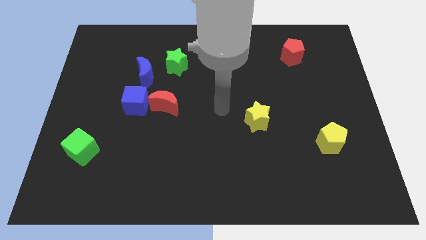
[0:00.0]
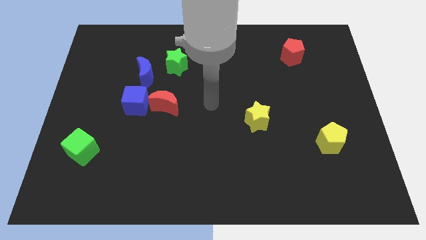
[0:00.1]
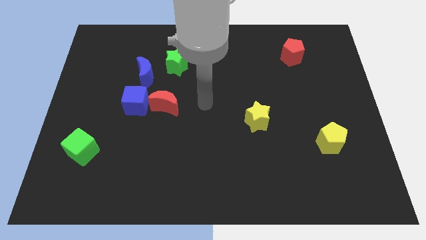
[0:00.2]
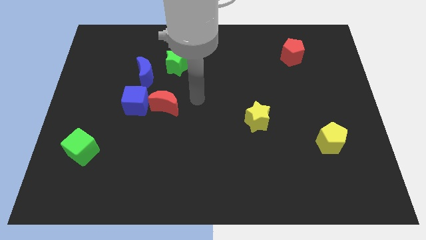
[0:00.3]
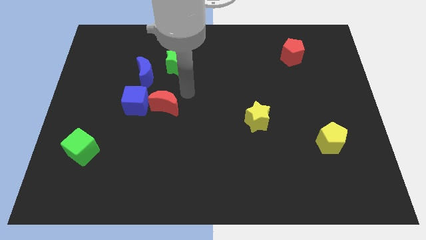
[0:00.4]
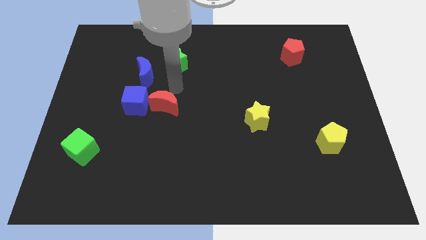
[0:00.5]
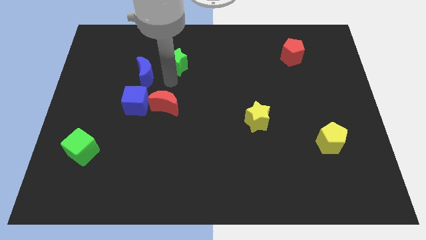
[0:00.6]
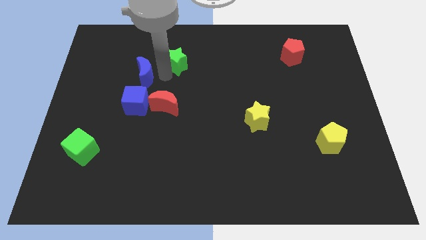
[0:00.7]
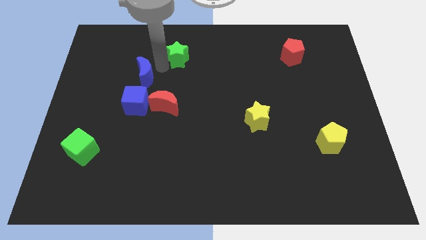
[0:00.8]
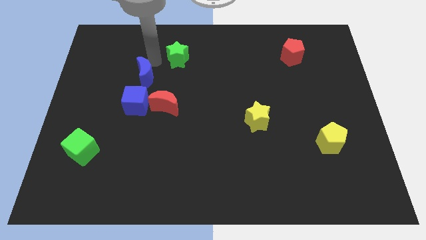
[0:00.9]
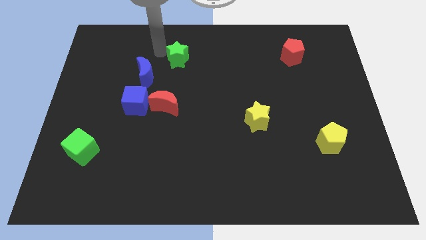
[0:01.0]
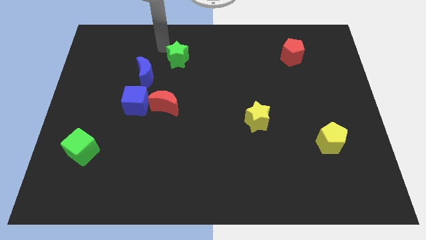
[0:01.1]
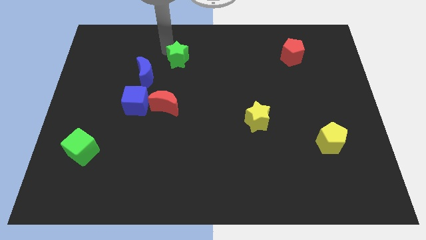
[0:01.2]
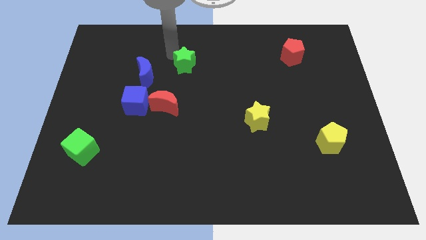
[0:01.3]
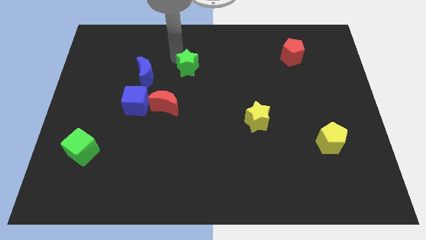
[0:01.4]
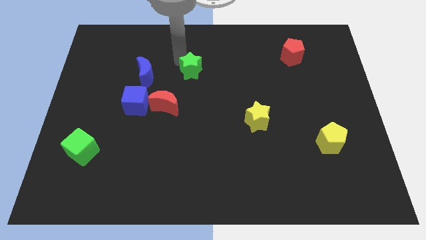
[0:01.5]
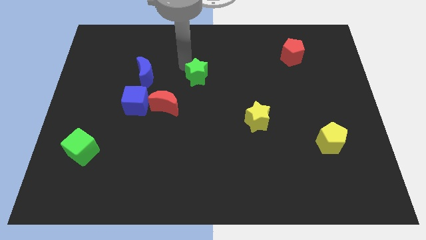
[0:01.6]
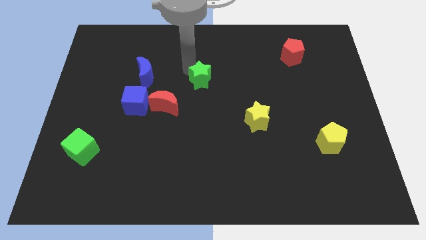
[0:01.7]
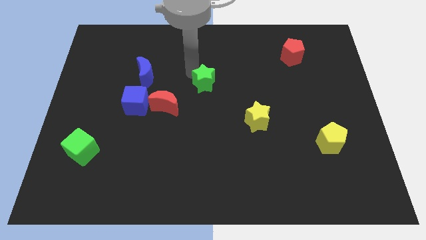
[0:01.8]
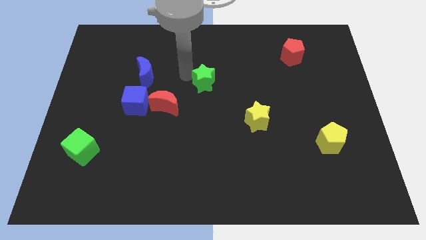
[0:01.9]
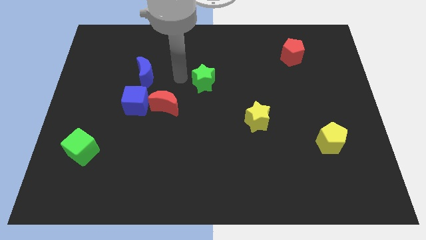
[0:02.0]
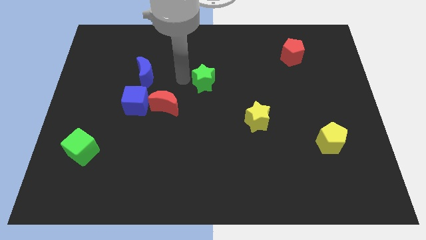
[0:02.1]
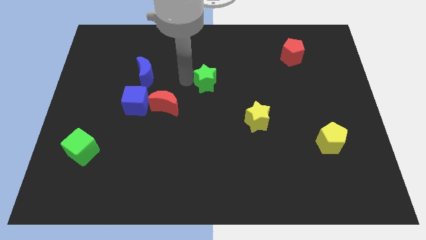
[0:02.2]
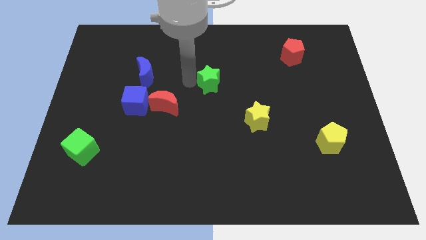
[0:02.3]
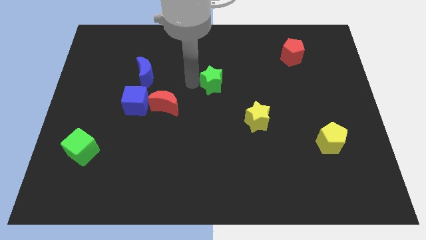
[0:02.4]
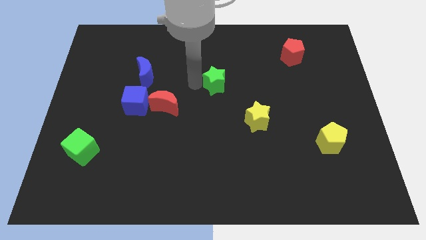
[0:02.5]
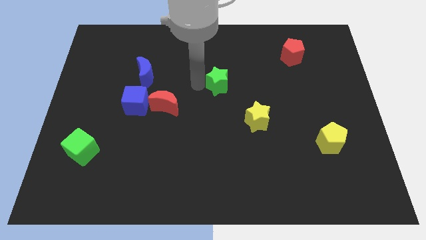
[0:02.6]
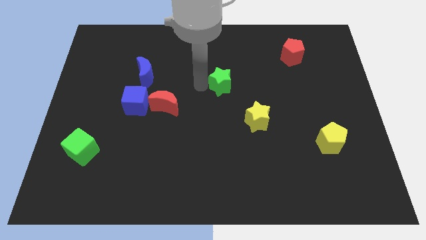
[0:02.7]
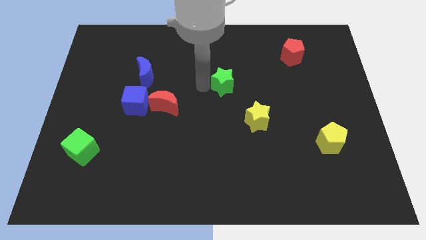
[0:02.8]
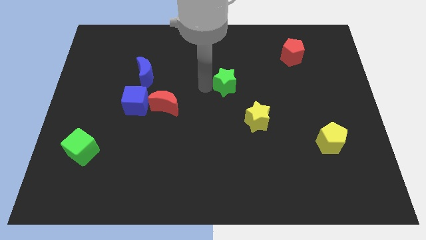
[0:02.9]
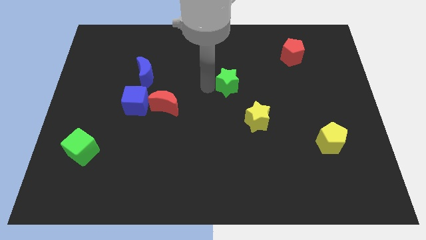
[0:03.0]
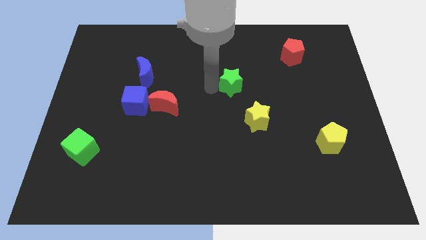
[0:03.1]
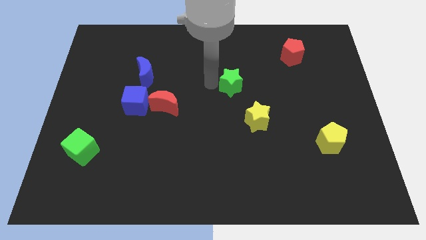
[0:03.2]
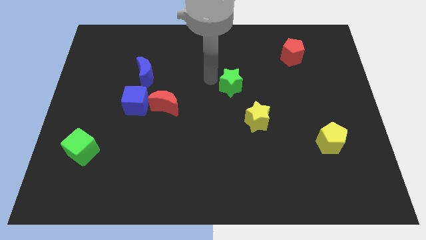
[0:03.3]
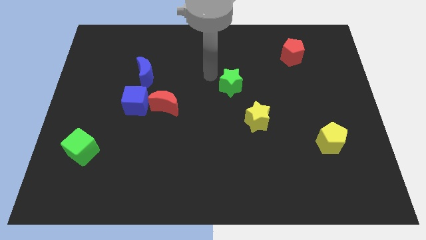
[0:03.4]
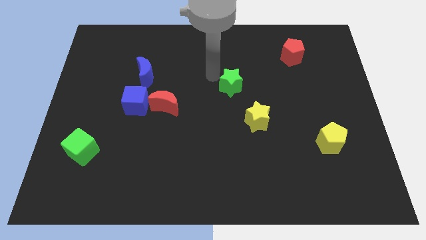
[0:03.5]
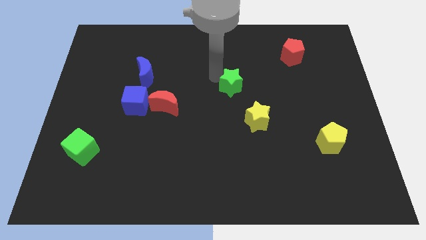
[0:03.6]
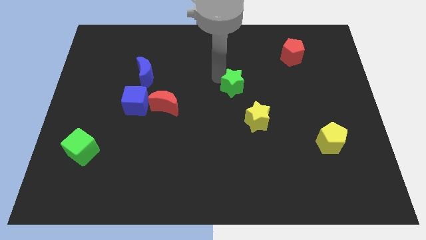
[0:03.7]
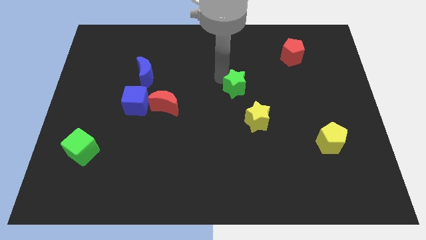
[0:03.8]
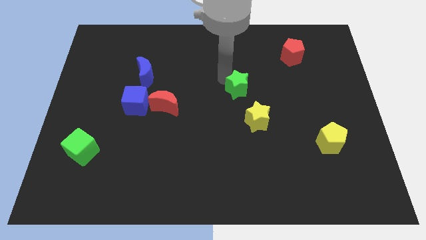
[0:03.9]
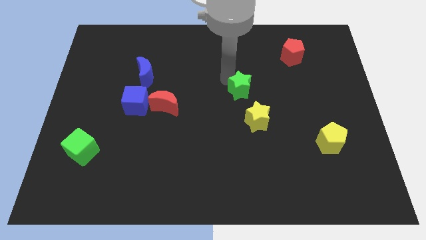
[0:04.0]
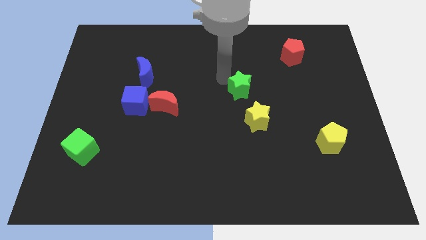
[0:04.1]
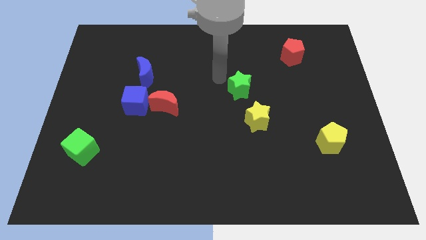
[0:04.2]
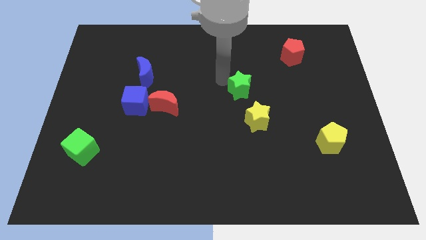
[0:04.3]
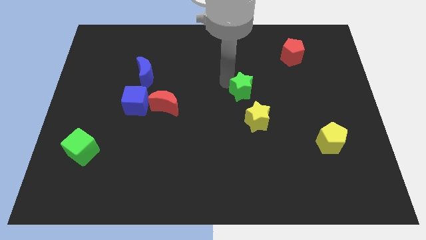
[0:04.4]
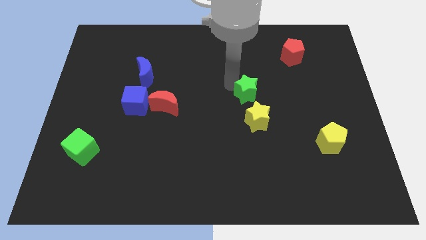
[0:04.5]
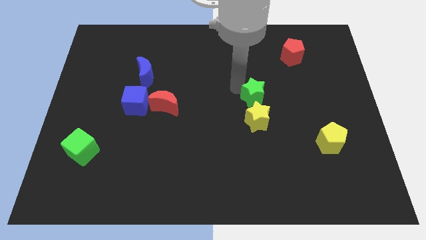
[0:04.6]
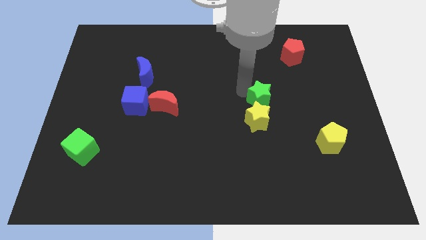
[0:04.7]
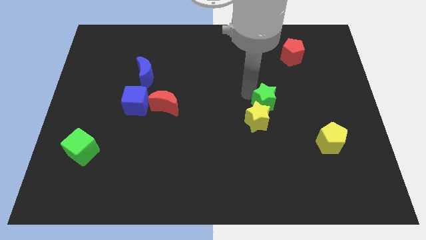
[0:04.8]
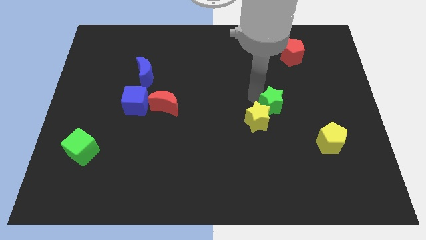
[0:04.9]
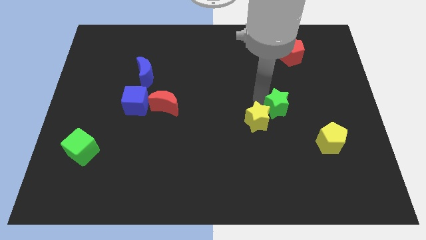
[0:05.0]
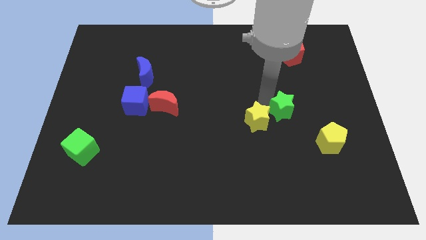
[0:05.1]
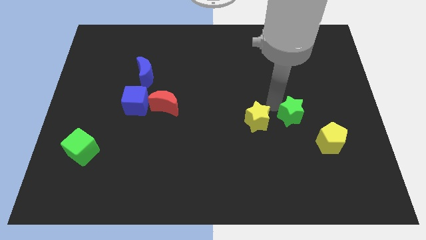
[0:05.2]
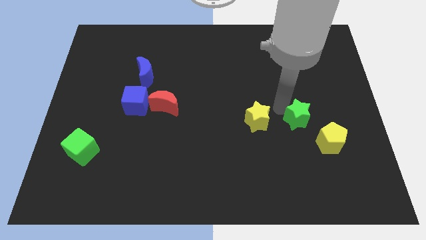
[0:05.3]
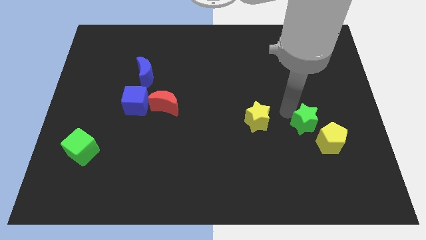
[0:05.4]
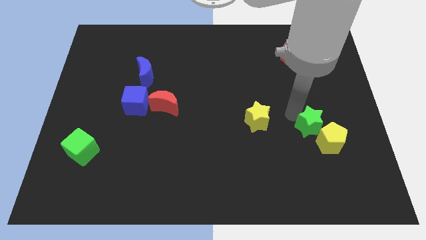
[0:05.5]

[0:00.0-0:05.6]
put the green star to the yellow pentagon

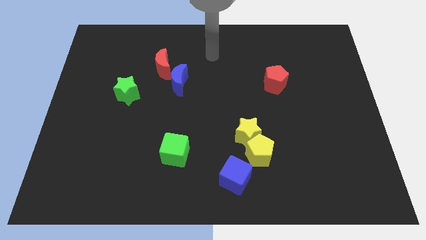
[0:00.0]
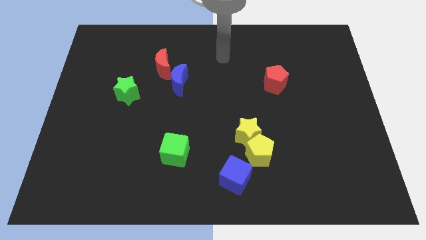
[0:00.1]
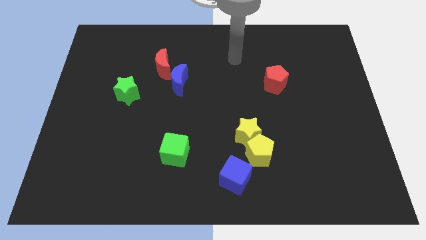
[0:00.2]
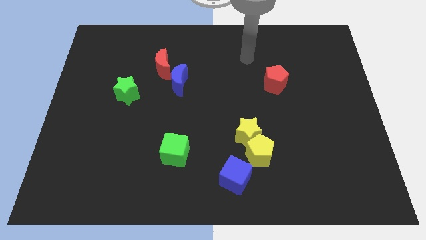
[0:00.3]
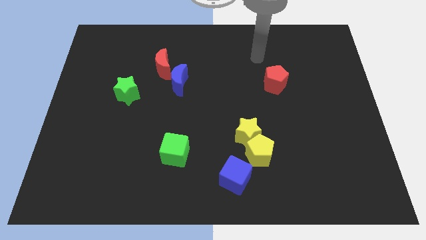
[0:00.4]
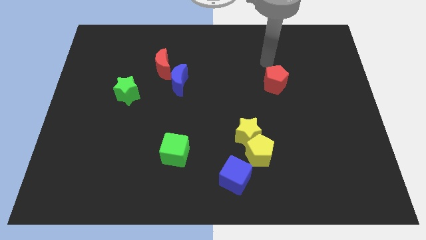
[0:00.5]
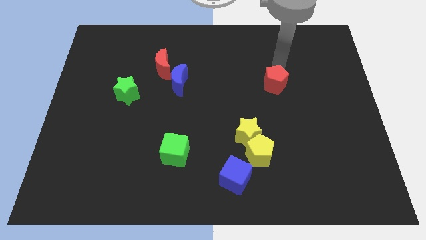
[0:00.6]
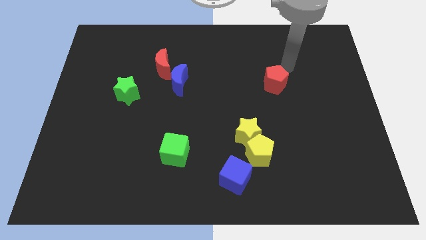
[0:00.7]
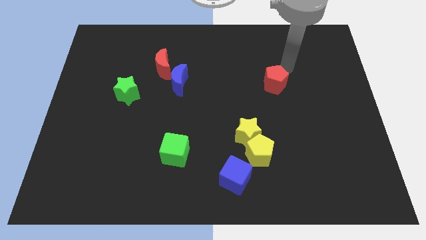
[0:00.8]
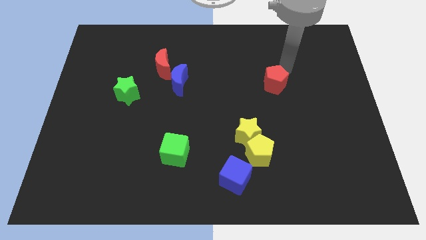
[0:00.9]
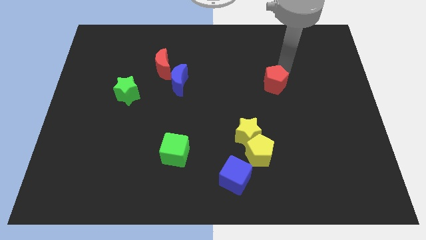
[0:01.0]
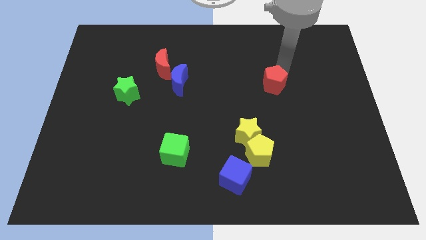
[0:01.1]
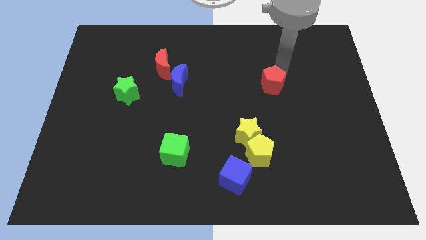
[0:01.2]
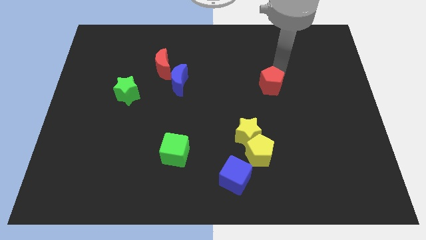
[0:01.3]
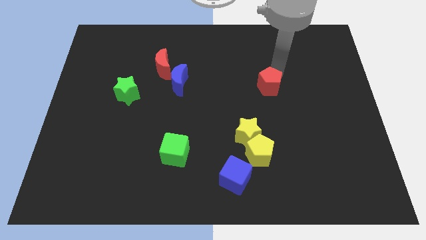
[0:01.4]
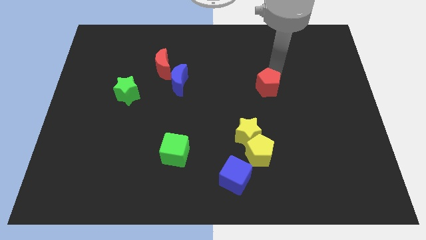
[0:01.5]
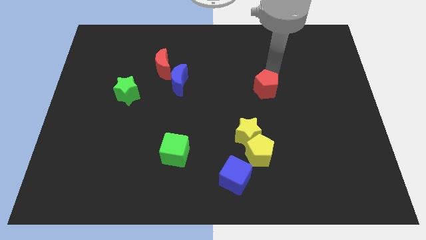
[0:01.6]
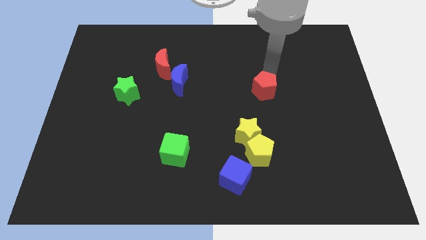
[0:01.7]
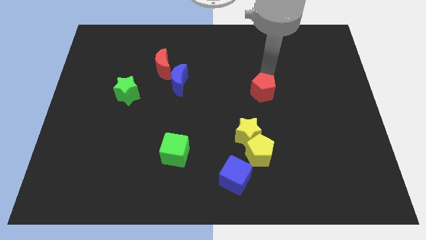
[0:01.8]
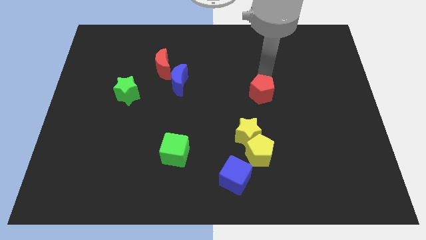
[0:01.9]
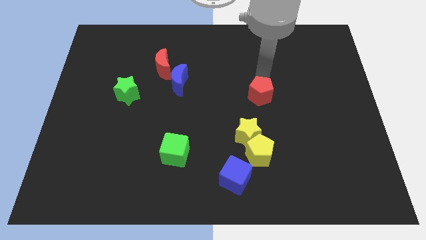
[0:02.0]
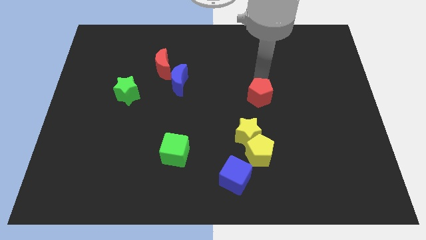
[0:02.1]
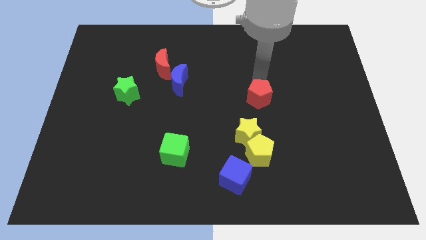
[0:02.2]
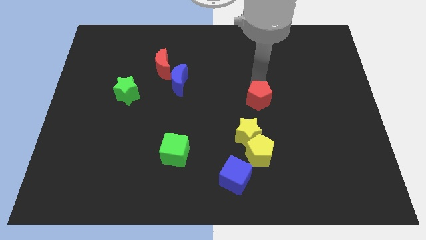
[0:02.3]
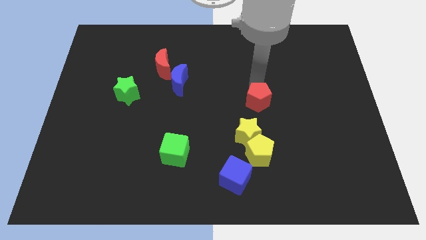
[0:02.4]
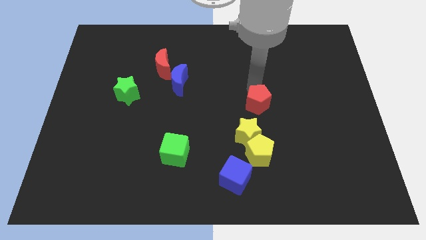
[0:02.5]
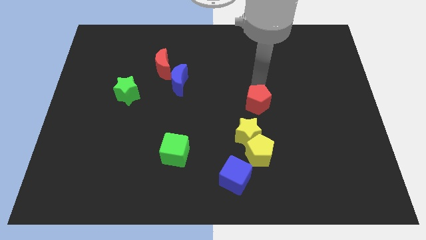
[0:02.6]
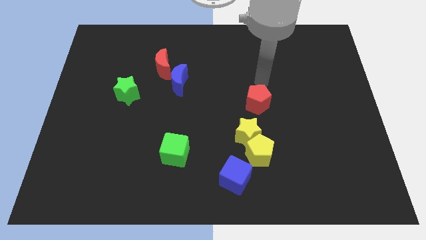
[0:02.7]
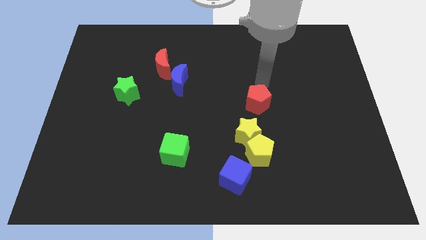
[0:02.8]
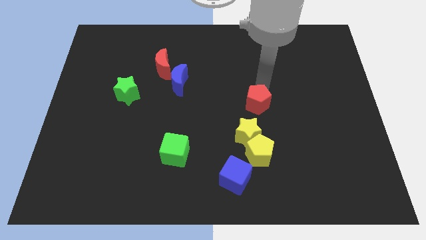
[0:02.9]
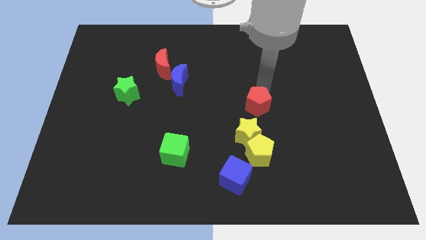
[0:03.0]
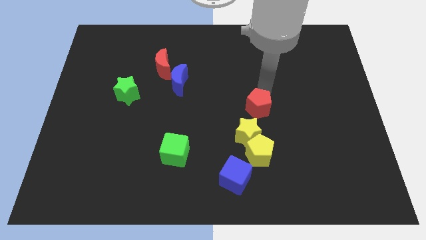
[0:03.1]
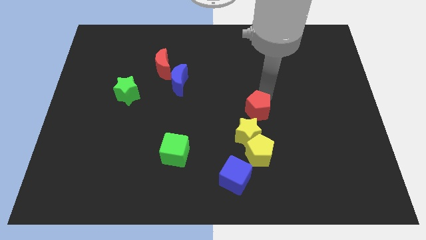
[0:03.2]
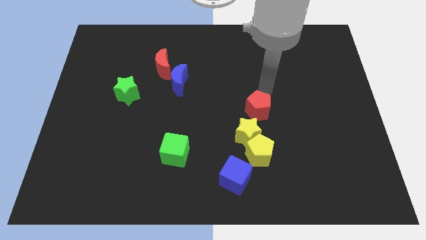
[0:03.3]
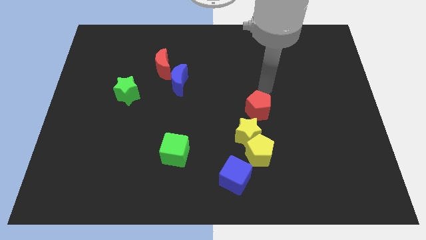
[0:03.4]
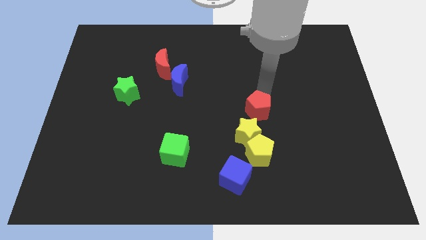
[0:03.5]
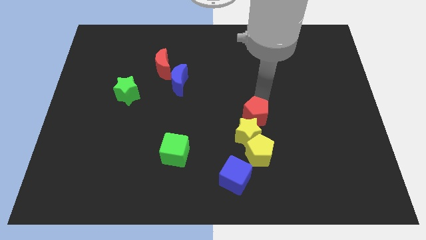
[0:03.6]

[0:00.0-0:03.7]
move the red pentagon close to the yellow star
